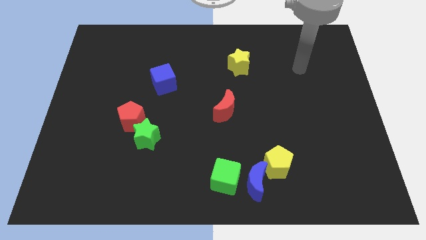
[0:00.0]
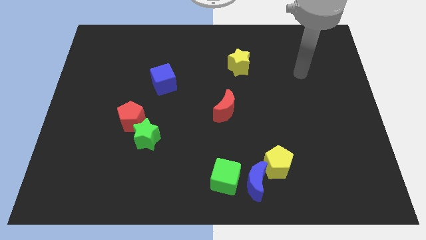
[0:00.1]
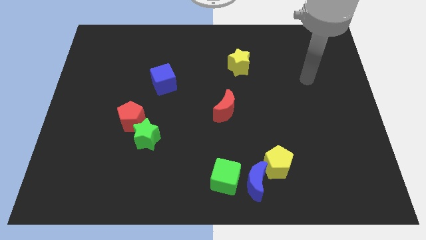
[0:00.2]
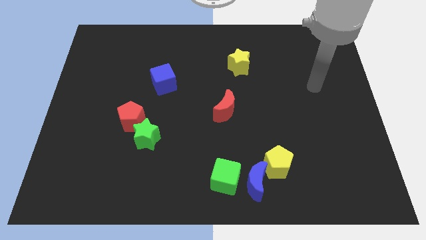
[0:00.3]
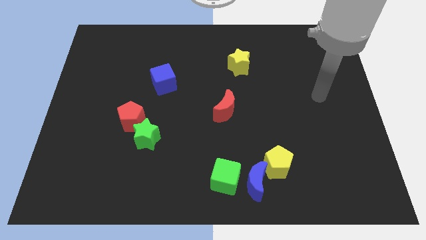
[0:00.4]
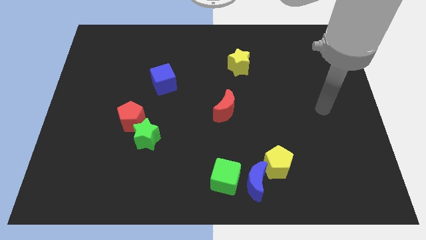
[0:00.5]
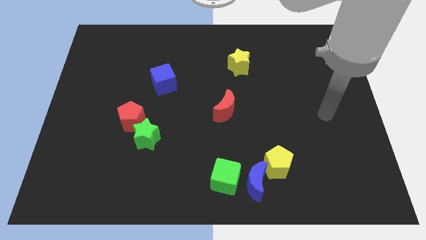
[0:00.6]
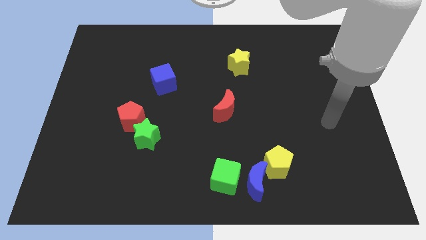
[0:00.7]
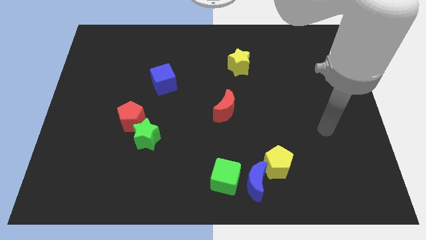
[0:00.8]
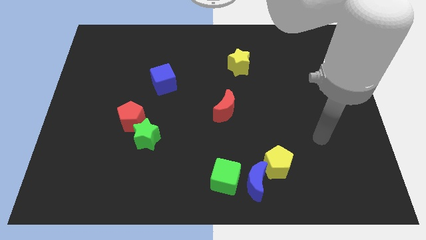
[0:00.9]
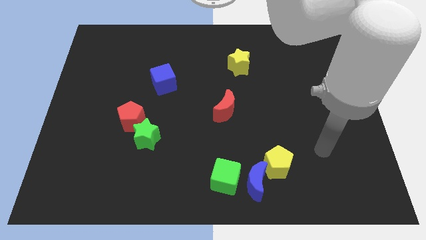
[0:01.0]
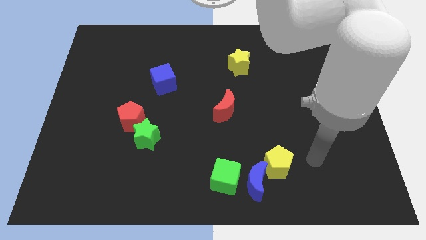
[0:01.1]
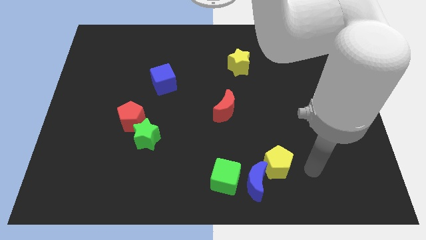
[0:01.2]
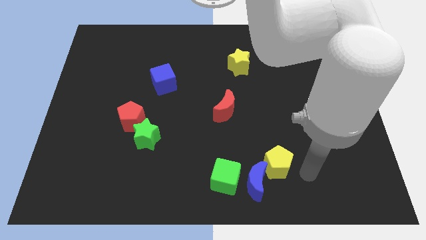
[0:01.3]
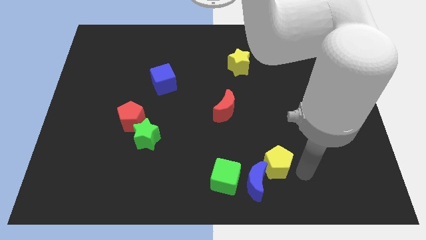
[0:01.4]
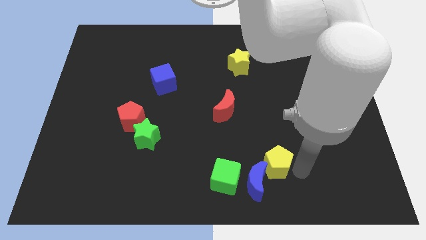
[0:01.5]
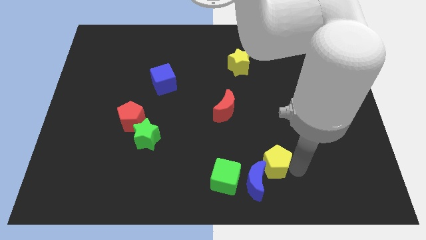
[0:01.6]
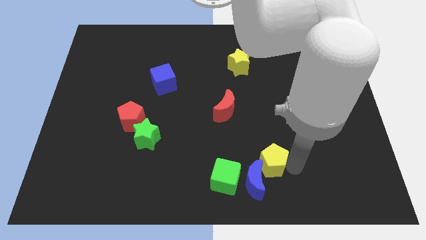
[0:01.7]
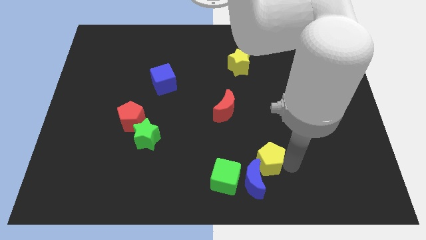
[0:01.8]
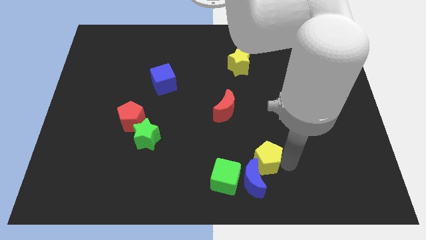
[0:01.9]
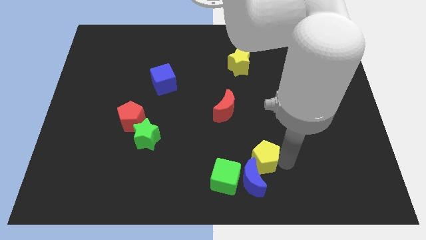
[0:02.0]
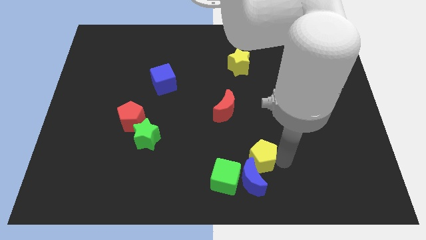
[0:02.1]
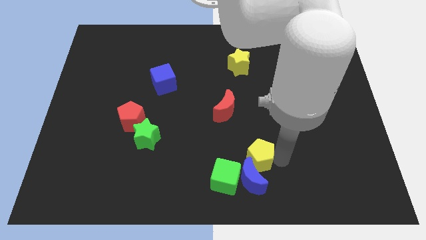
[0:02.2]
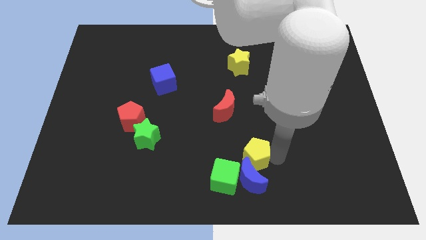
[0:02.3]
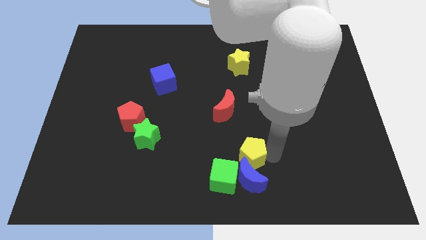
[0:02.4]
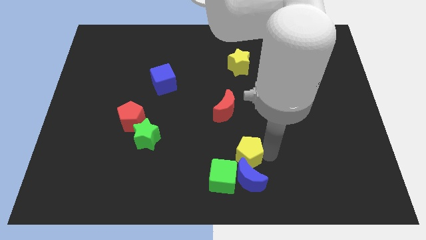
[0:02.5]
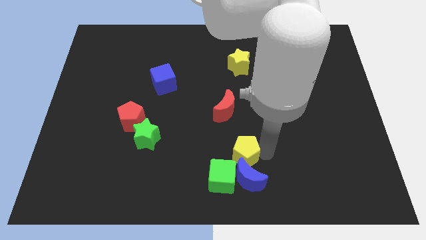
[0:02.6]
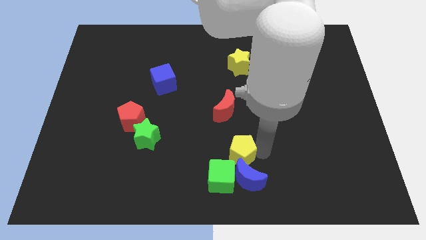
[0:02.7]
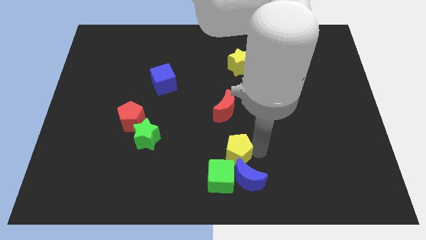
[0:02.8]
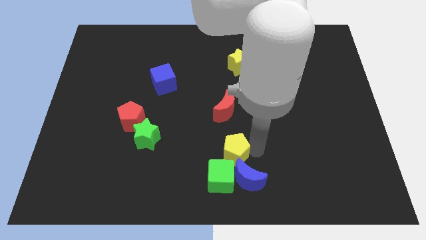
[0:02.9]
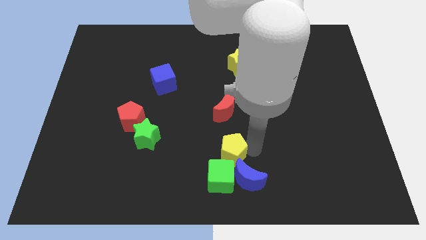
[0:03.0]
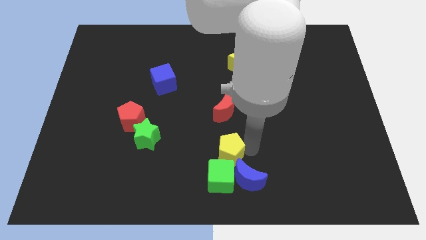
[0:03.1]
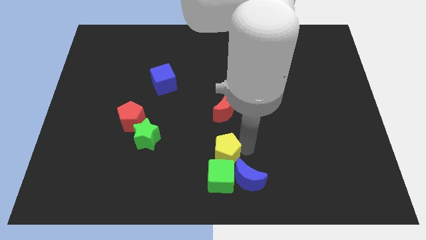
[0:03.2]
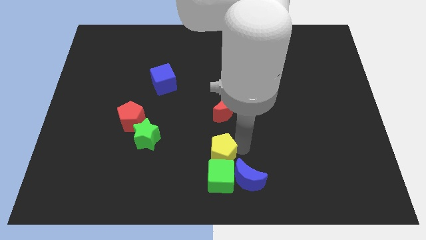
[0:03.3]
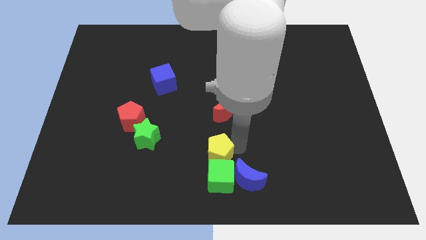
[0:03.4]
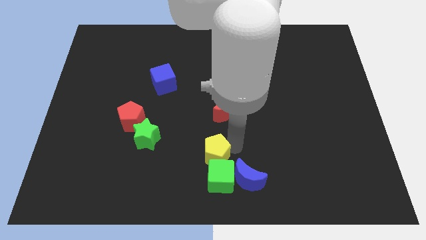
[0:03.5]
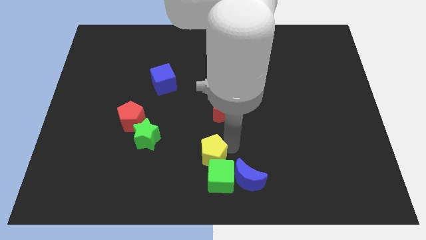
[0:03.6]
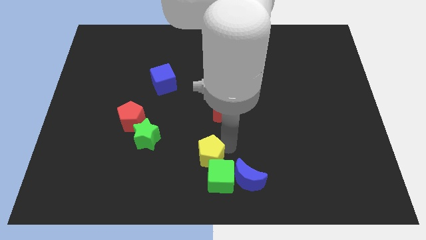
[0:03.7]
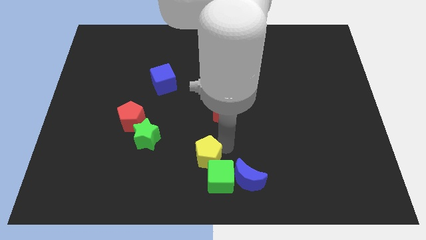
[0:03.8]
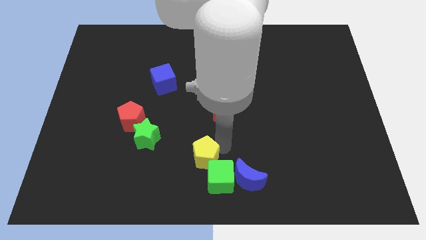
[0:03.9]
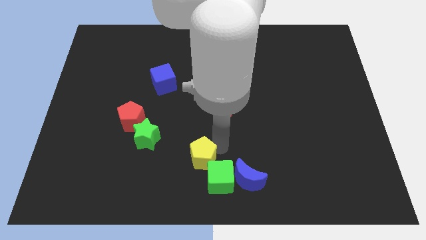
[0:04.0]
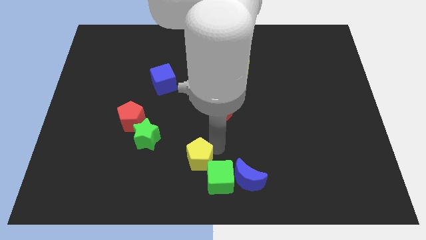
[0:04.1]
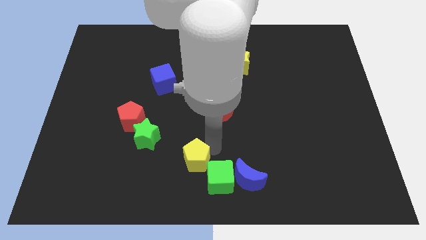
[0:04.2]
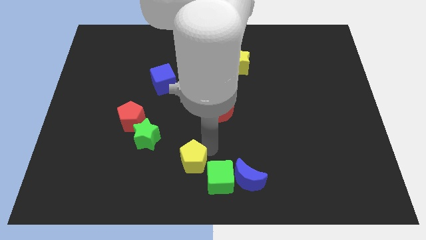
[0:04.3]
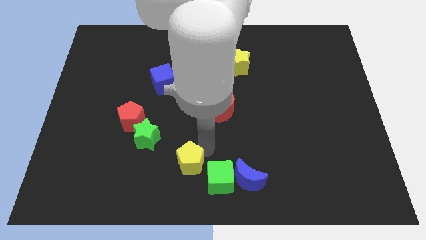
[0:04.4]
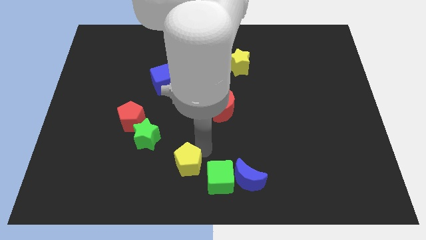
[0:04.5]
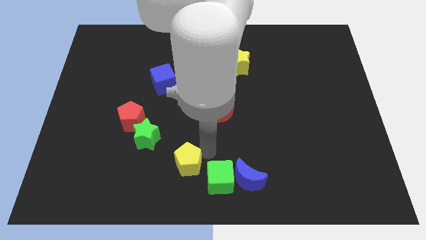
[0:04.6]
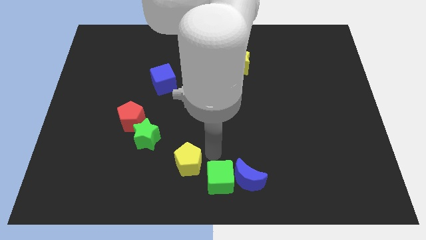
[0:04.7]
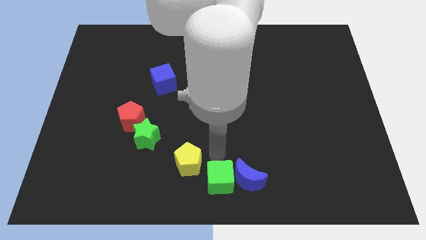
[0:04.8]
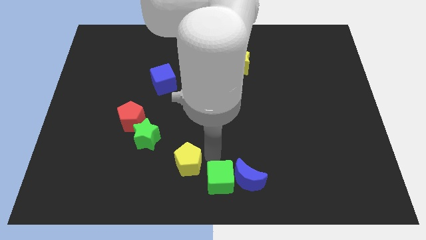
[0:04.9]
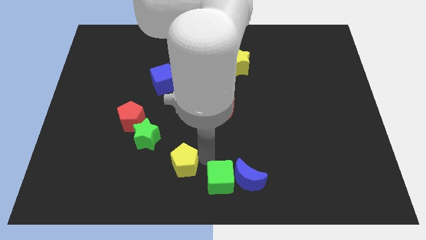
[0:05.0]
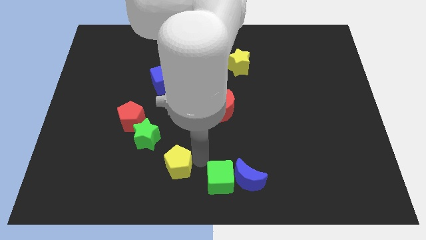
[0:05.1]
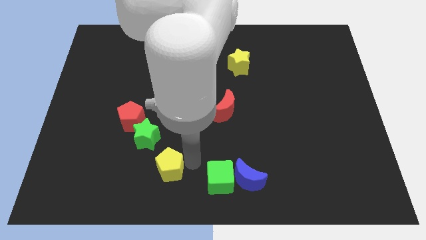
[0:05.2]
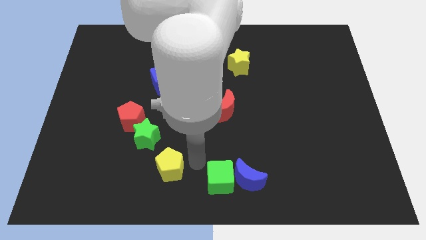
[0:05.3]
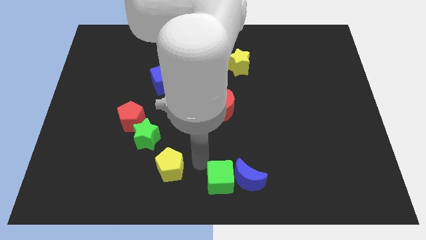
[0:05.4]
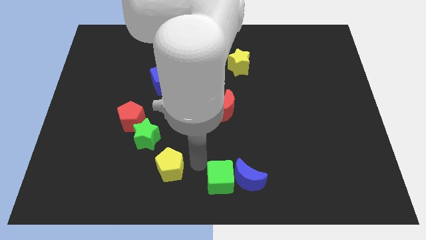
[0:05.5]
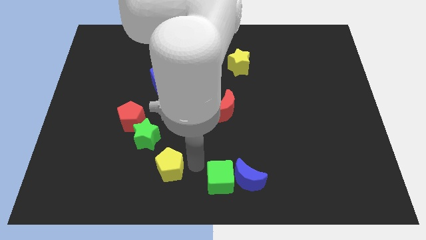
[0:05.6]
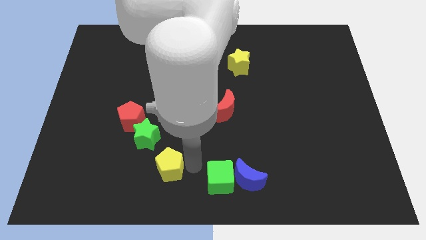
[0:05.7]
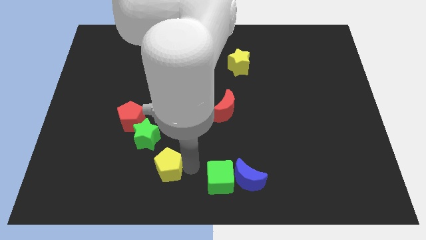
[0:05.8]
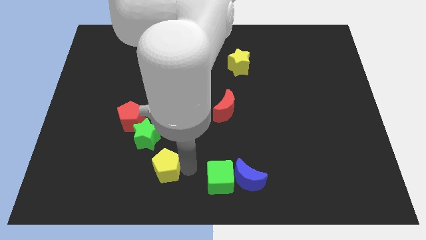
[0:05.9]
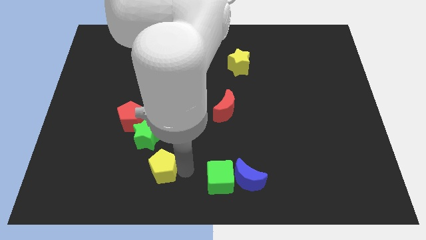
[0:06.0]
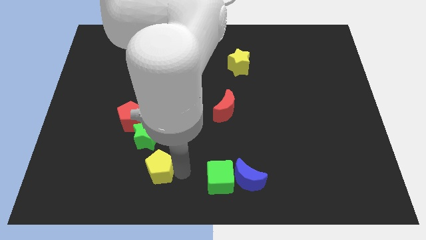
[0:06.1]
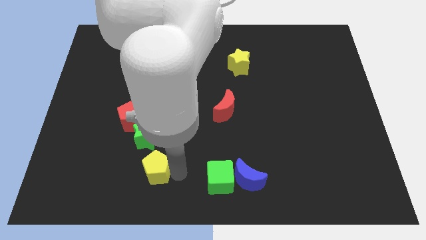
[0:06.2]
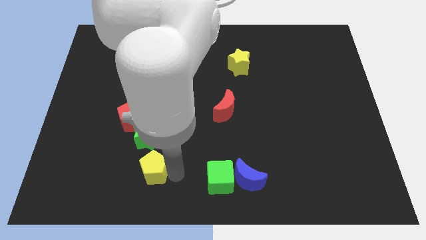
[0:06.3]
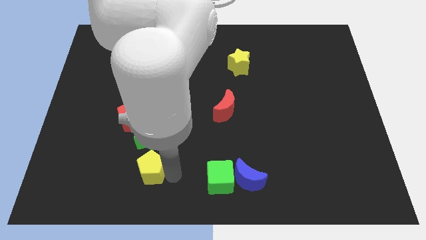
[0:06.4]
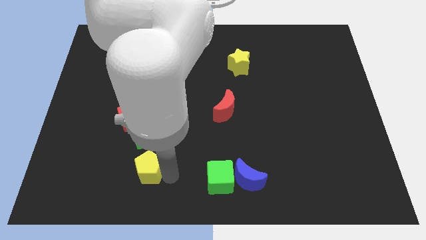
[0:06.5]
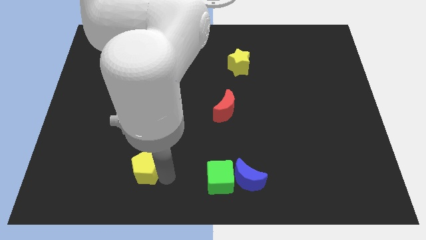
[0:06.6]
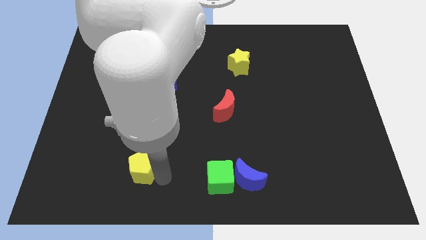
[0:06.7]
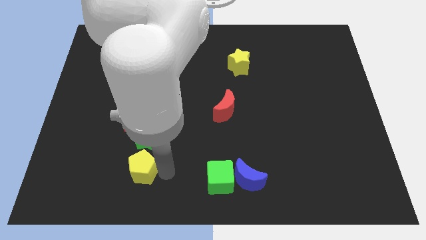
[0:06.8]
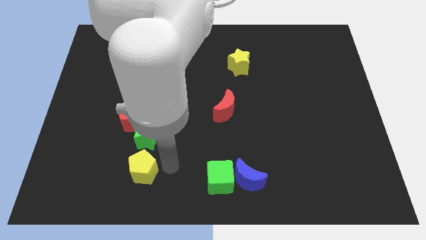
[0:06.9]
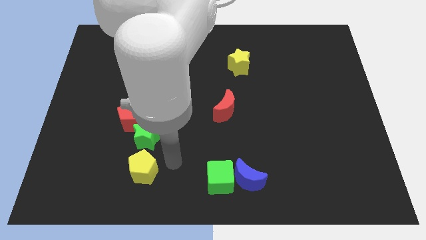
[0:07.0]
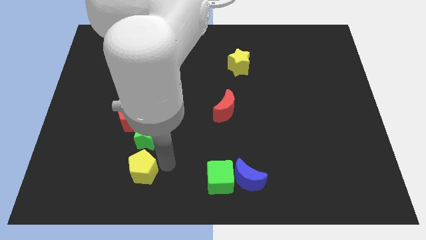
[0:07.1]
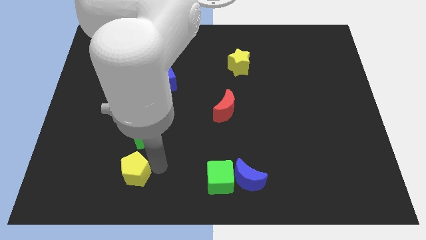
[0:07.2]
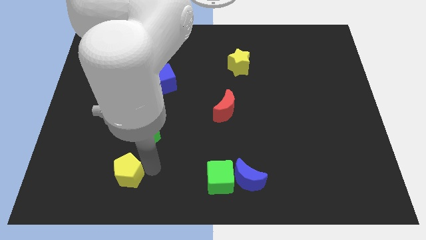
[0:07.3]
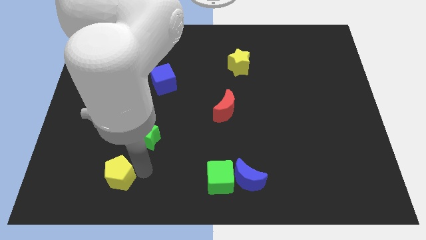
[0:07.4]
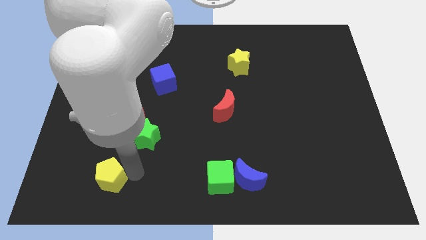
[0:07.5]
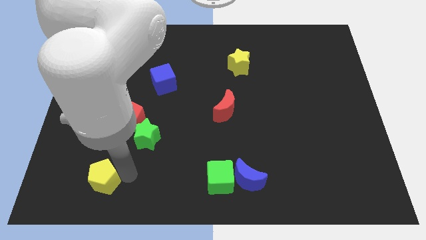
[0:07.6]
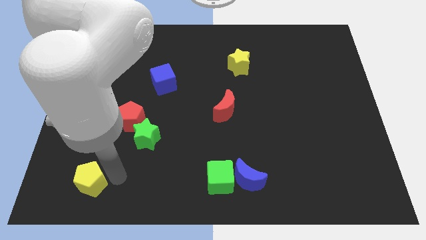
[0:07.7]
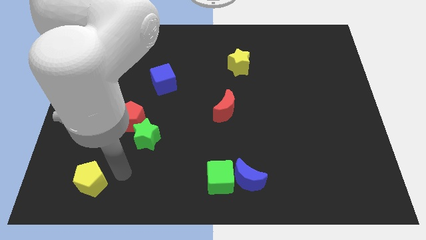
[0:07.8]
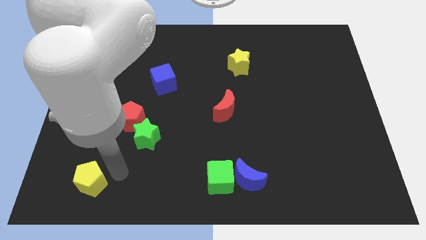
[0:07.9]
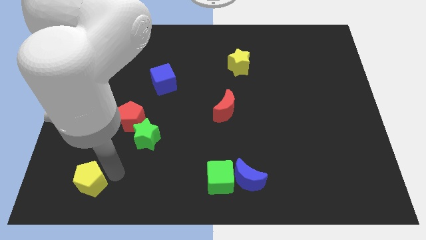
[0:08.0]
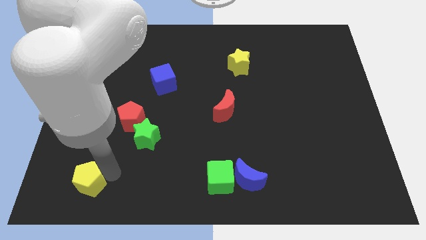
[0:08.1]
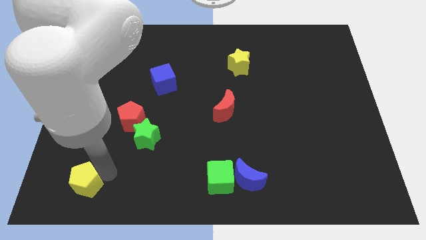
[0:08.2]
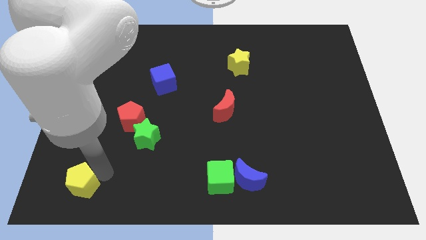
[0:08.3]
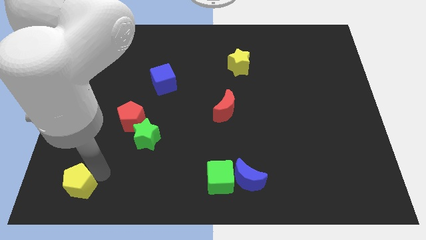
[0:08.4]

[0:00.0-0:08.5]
put the yellow pentagon to the bottom left corner
